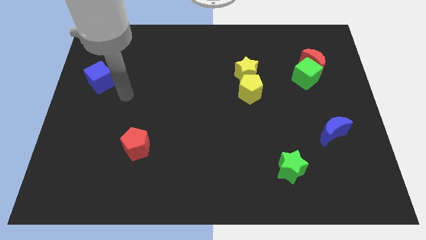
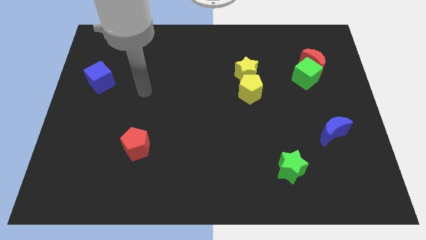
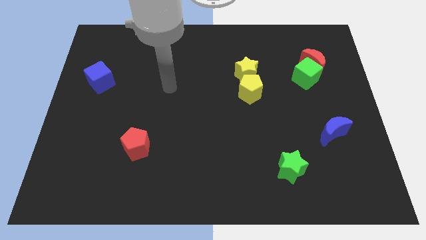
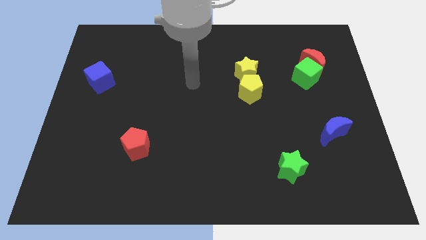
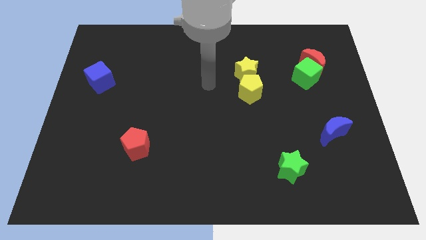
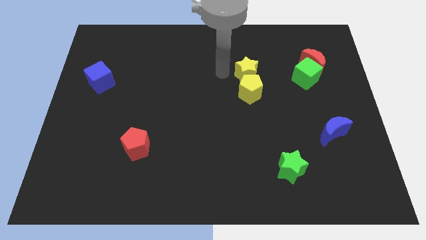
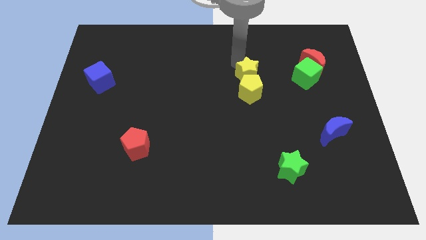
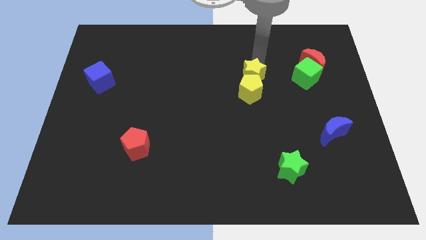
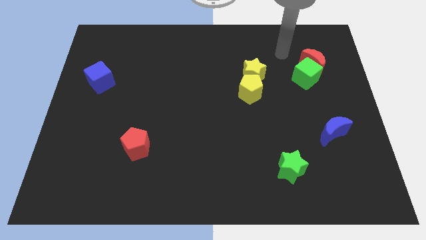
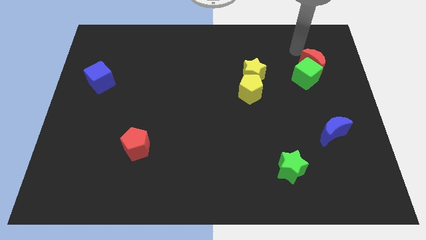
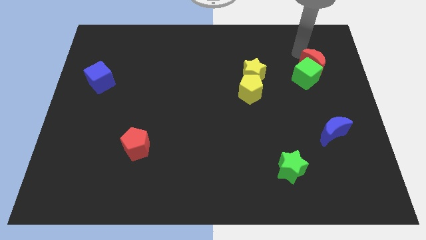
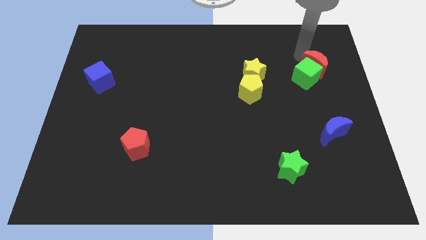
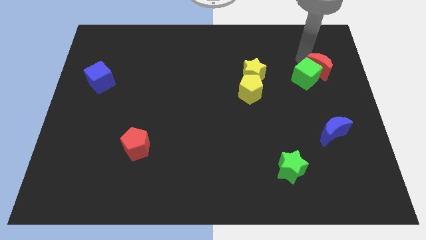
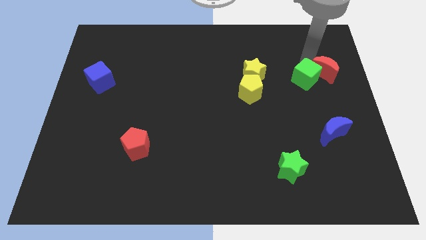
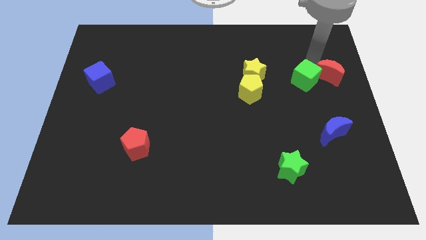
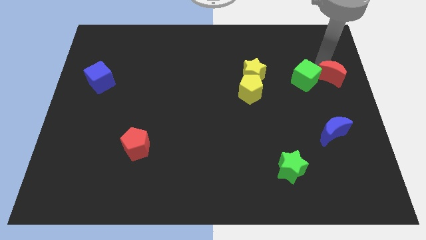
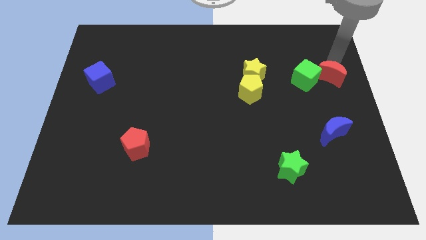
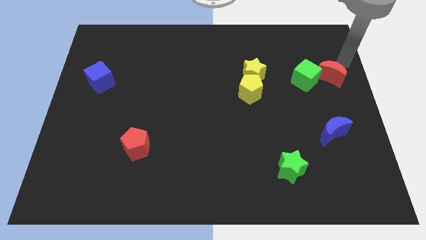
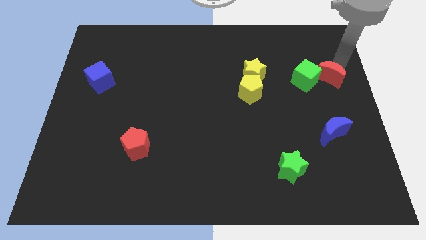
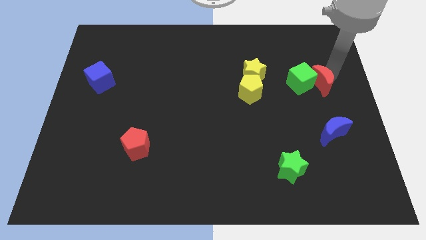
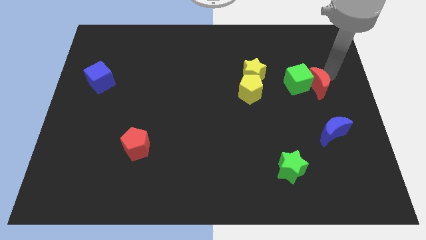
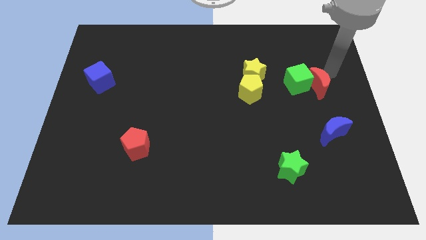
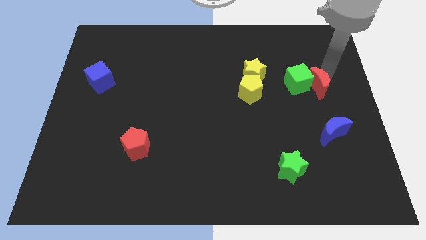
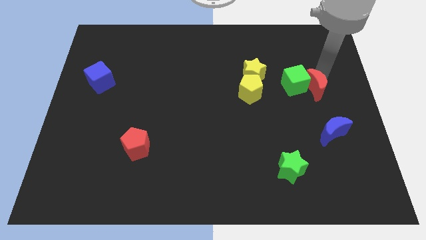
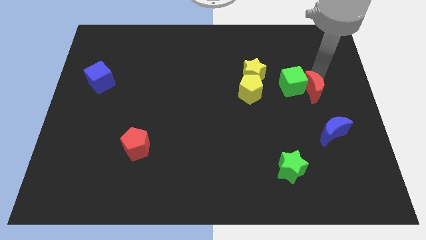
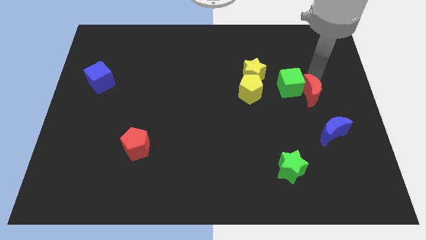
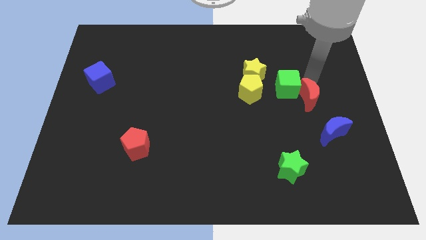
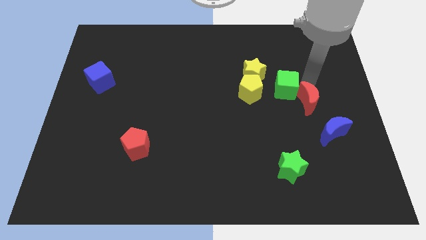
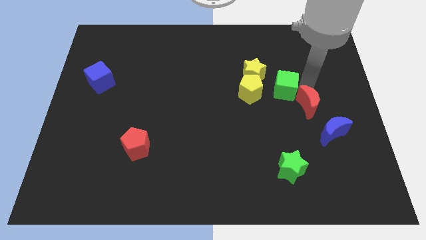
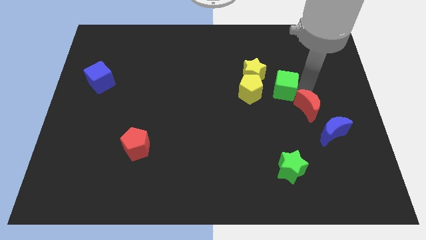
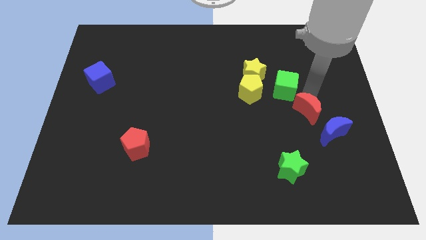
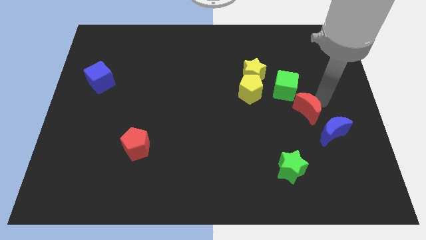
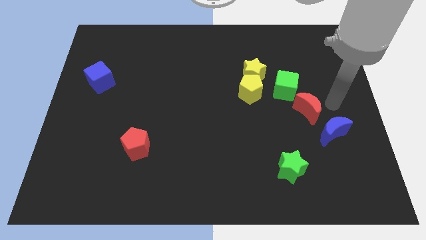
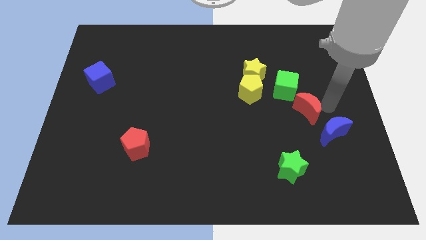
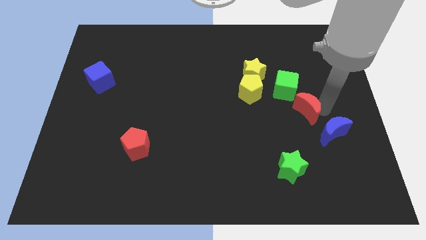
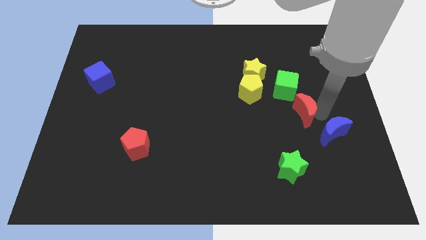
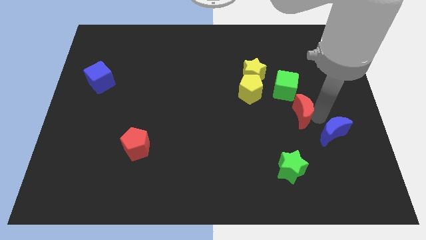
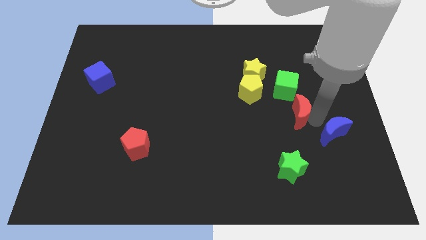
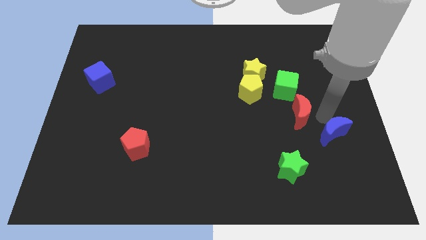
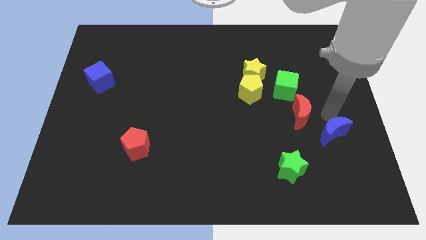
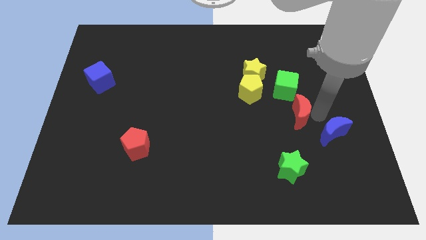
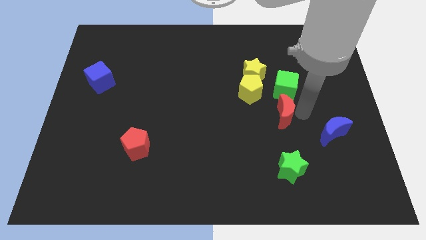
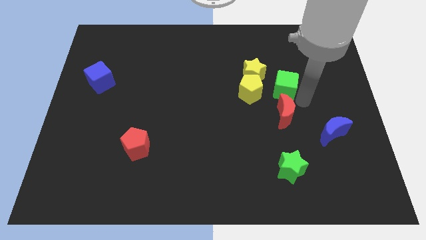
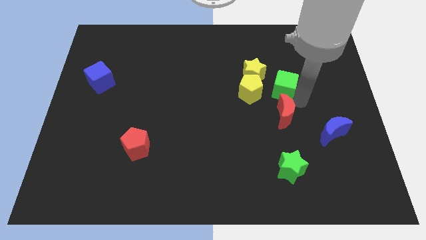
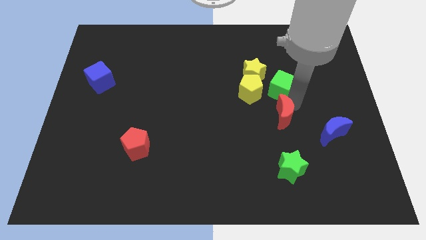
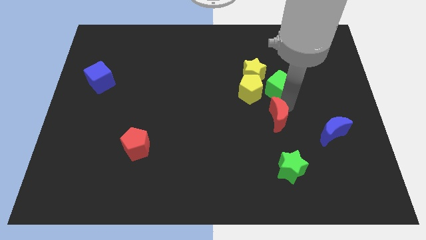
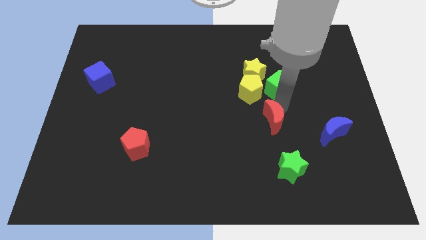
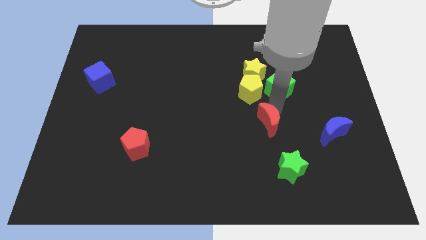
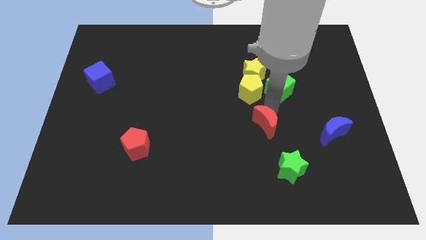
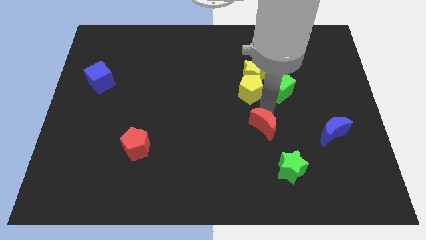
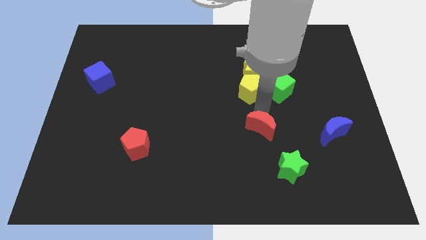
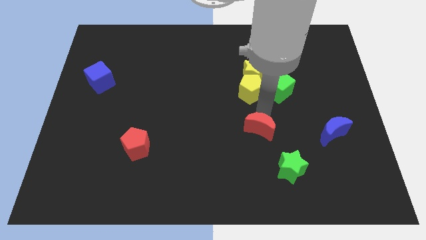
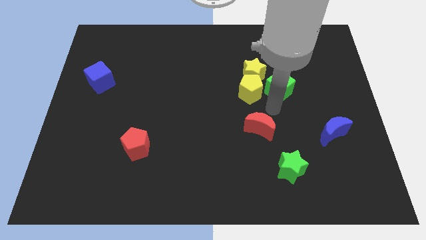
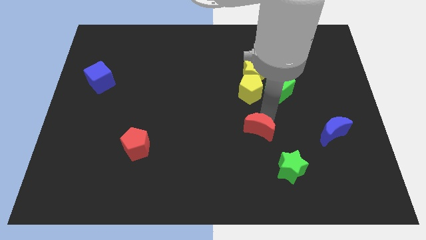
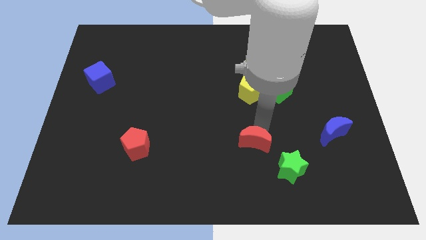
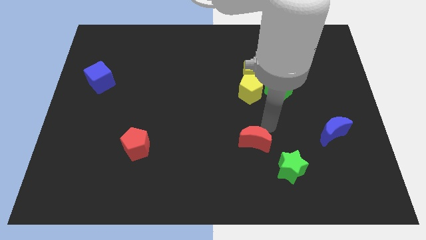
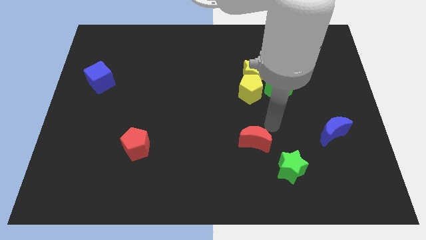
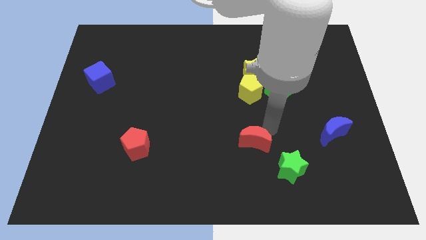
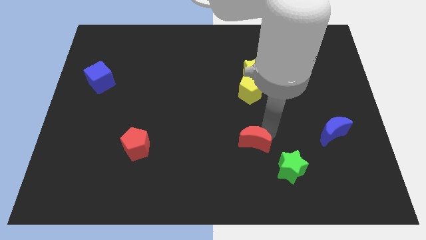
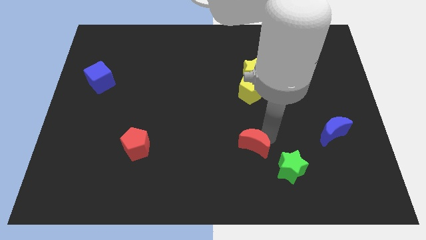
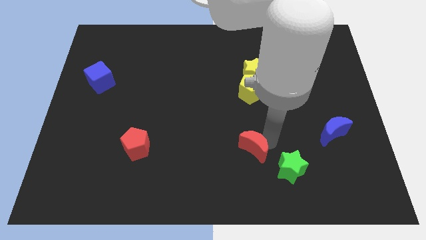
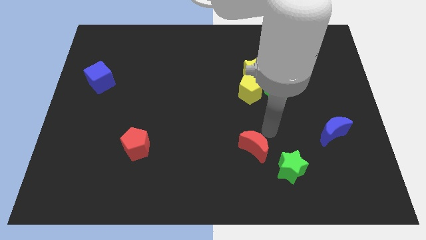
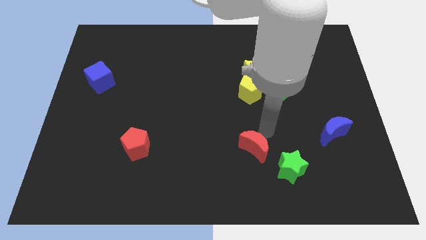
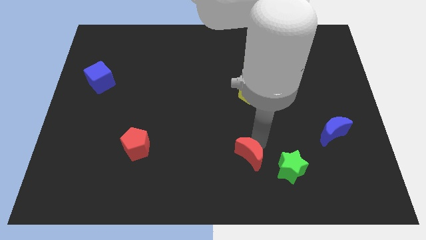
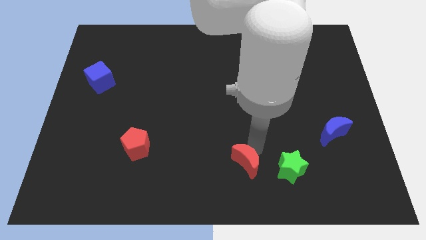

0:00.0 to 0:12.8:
push the red moon to the bottom

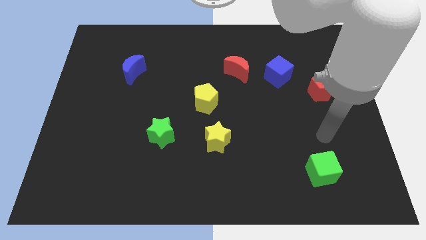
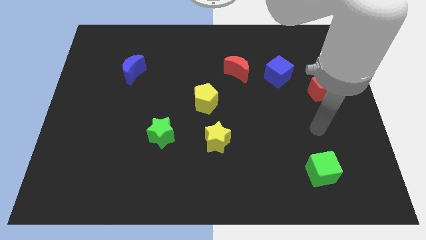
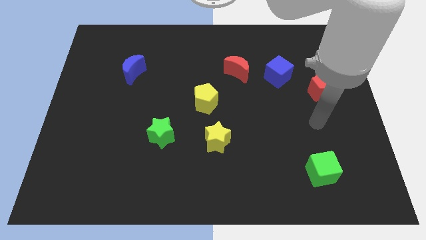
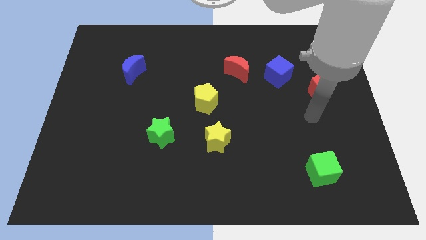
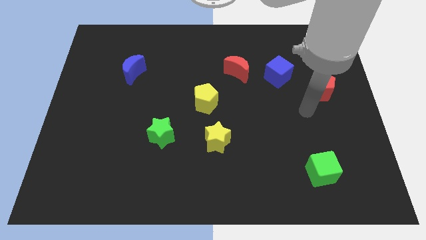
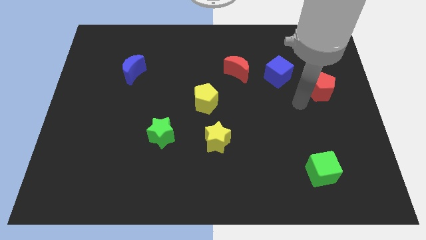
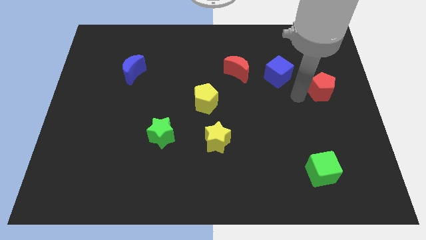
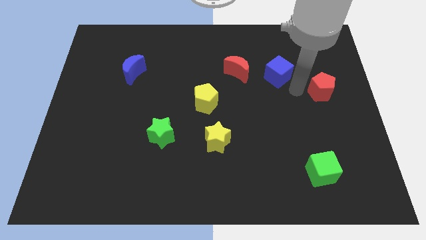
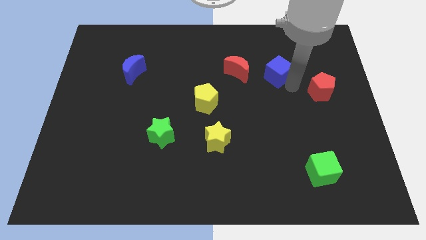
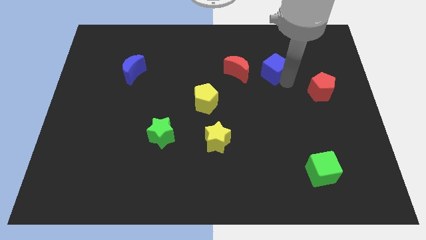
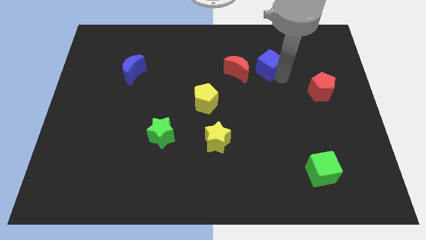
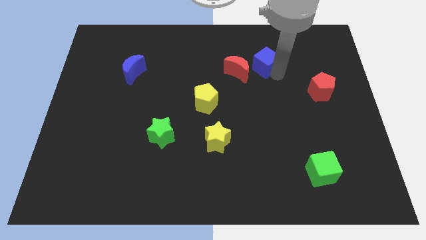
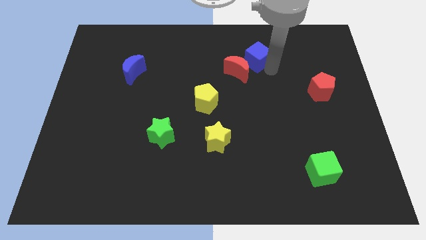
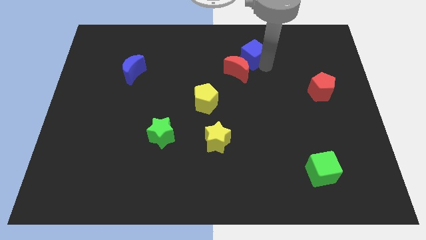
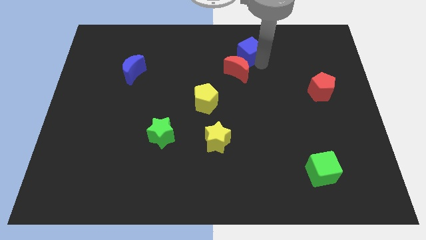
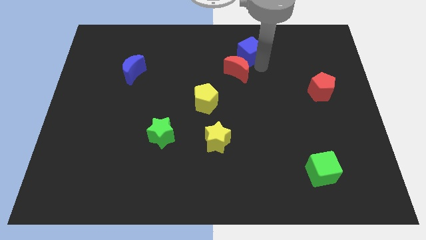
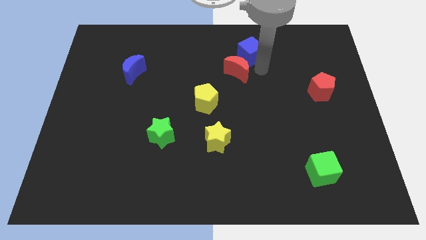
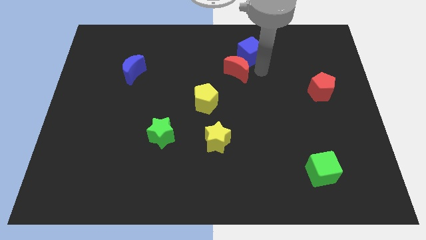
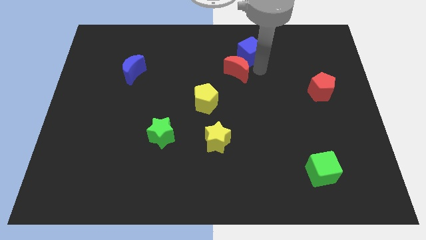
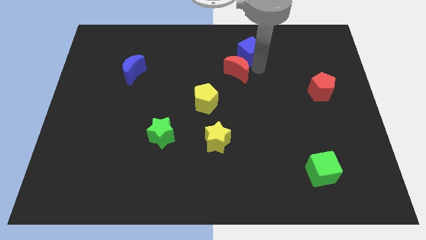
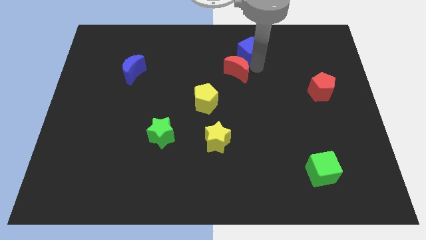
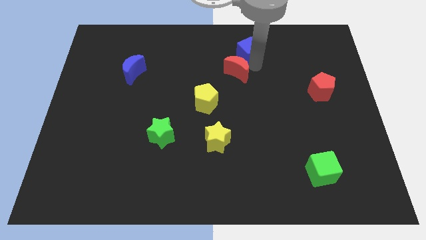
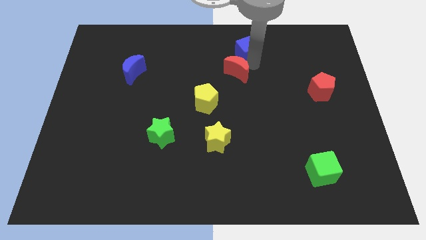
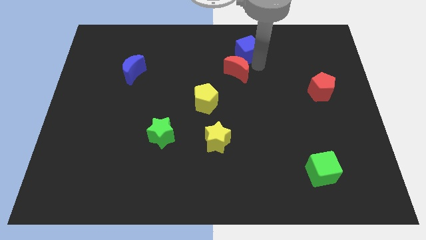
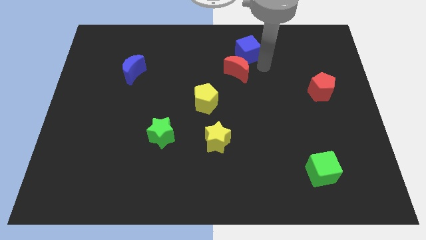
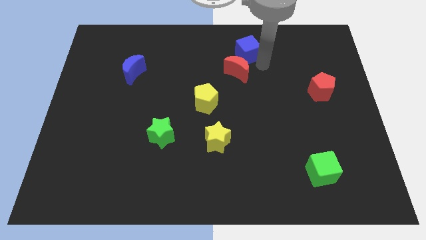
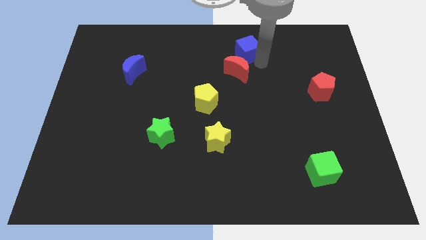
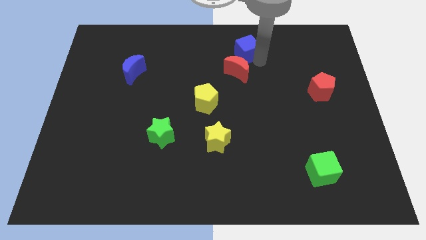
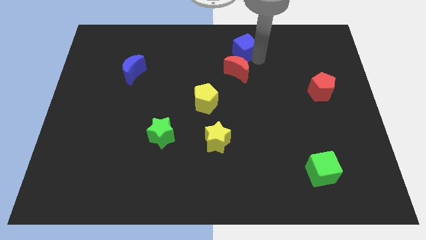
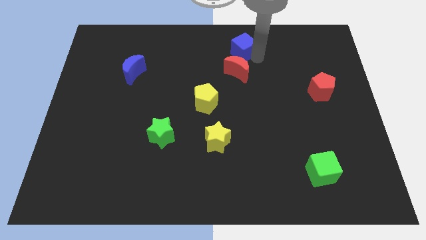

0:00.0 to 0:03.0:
put the blue cube to the top side
